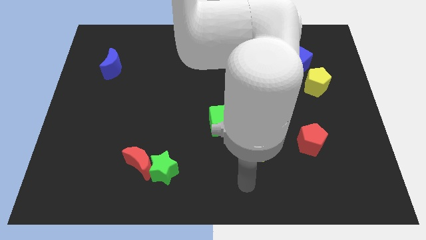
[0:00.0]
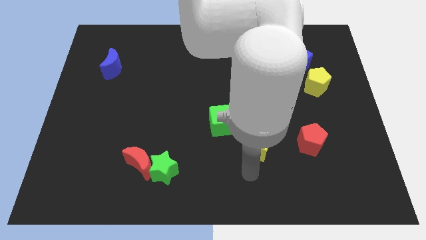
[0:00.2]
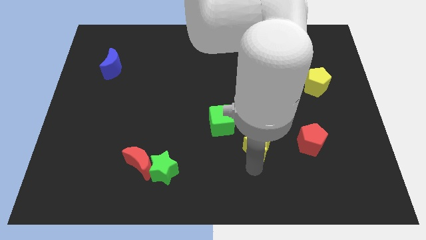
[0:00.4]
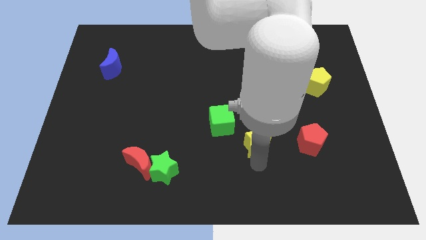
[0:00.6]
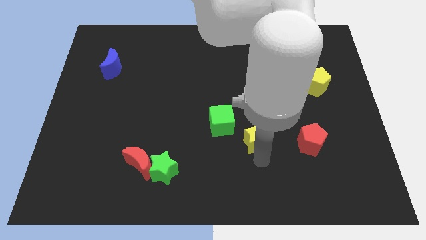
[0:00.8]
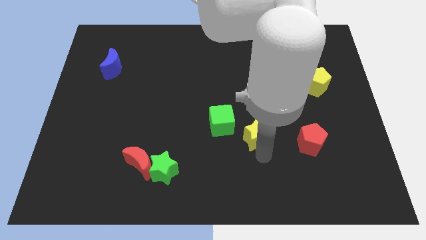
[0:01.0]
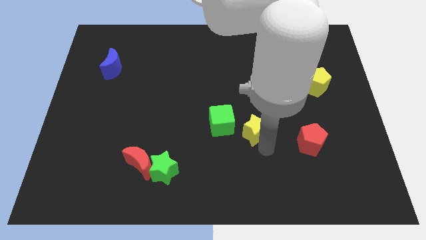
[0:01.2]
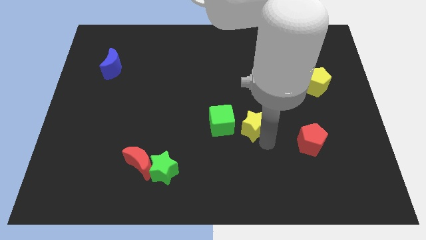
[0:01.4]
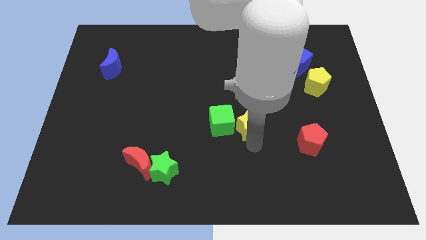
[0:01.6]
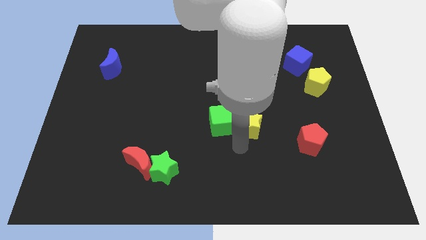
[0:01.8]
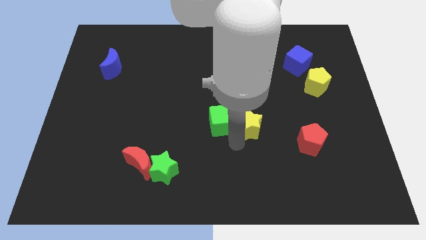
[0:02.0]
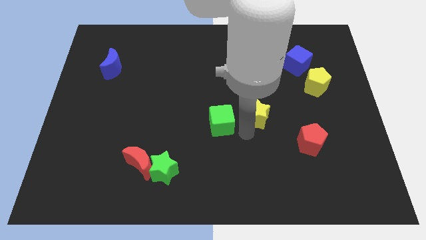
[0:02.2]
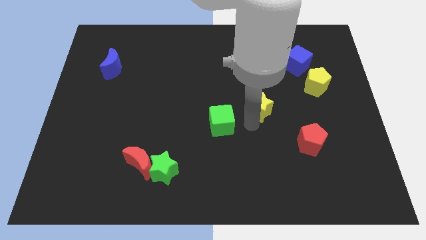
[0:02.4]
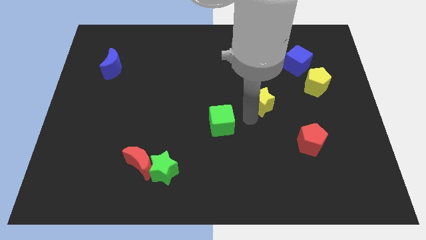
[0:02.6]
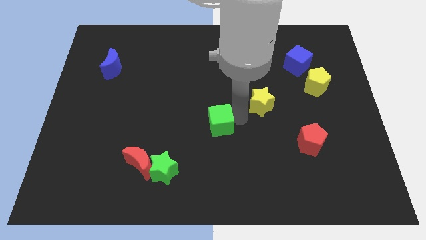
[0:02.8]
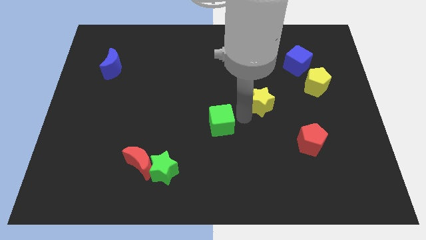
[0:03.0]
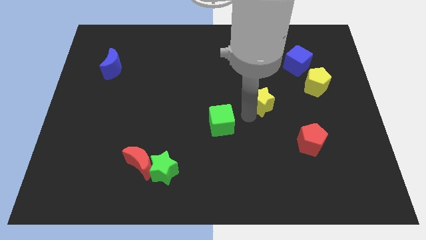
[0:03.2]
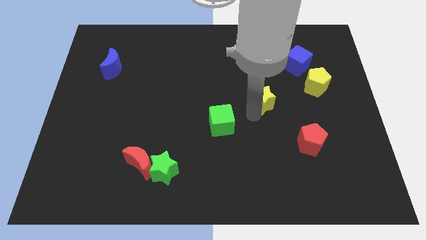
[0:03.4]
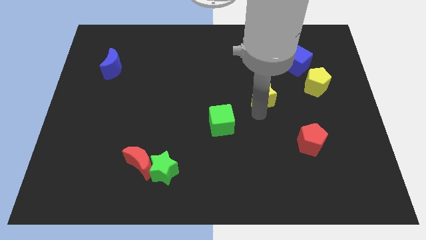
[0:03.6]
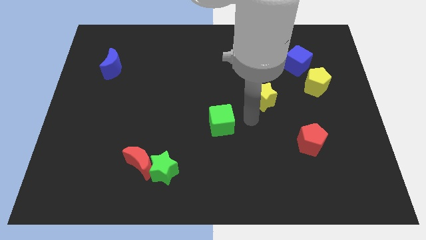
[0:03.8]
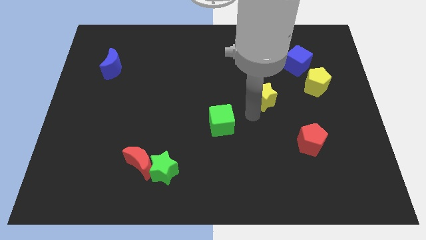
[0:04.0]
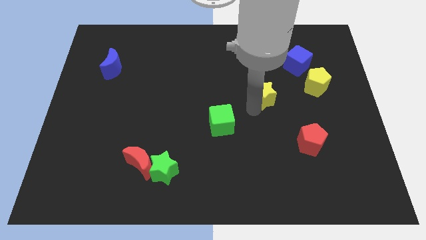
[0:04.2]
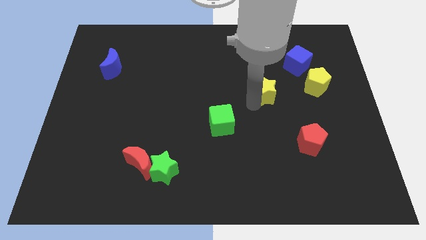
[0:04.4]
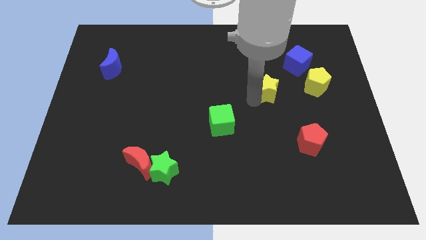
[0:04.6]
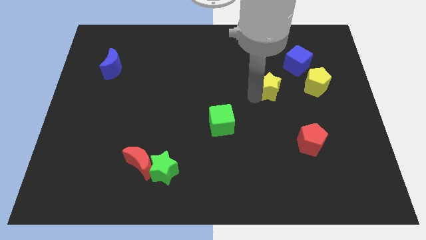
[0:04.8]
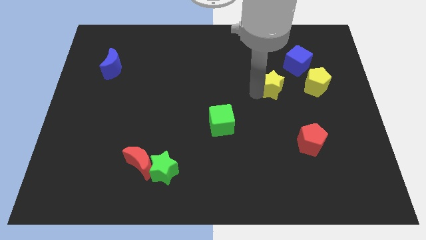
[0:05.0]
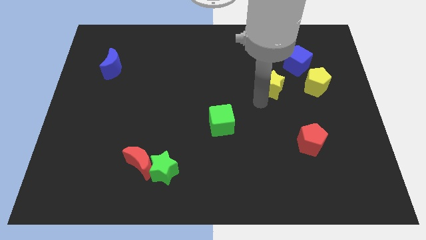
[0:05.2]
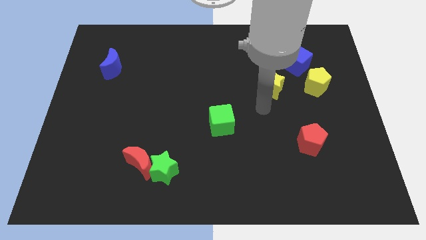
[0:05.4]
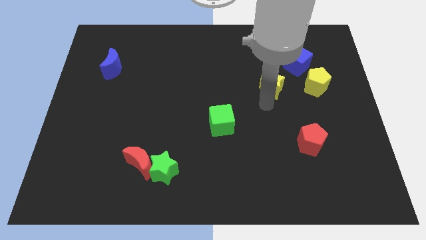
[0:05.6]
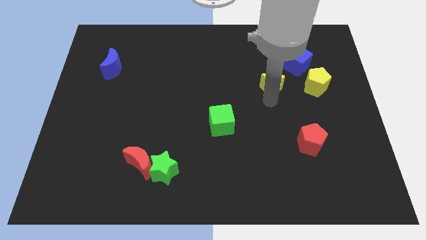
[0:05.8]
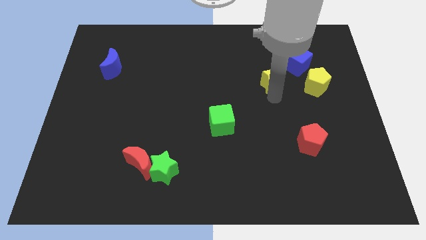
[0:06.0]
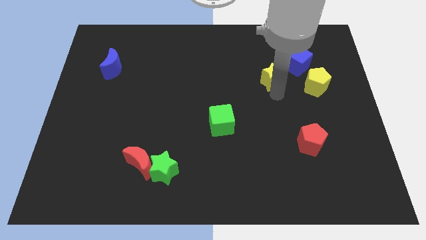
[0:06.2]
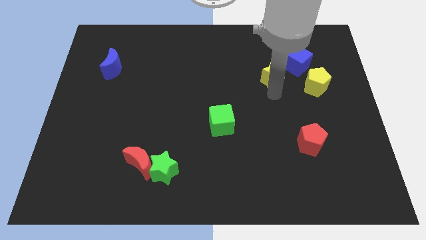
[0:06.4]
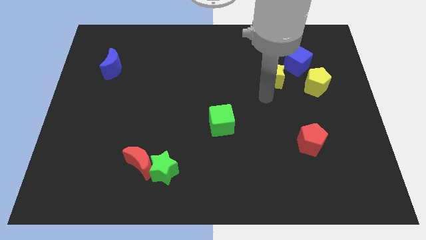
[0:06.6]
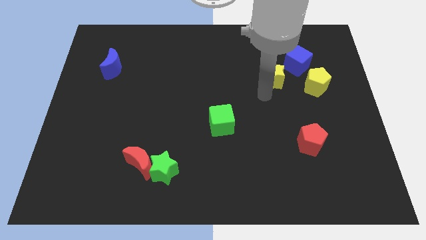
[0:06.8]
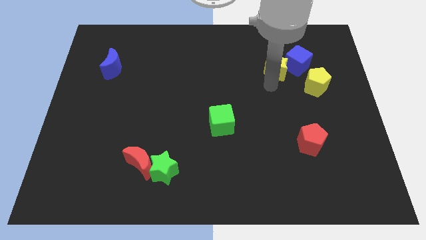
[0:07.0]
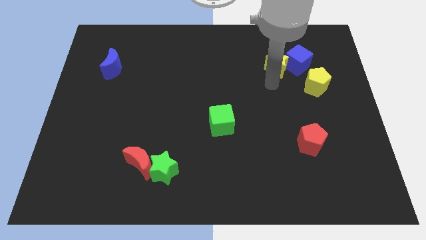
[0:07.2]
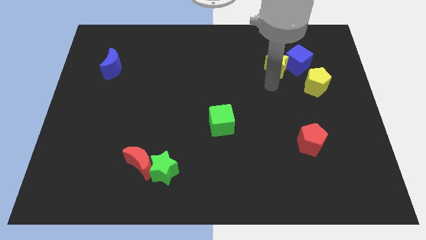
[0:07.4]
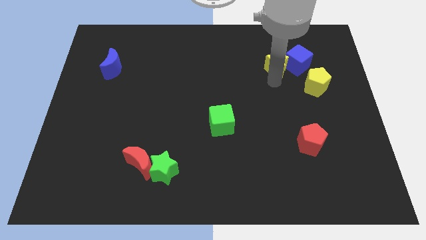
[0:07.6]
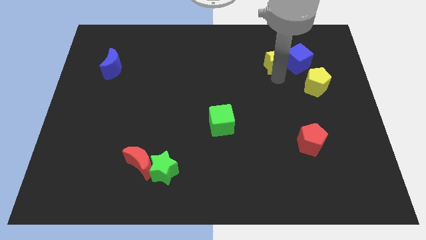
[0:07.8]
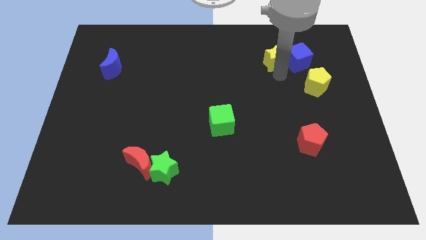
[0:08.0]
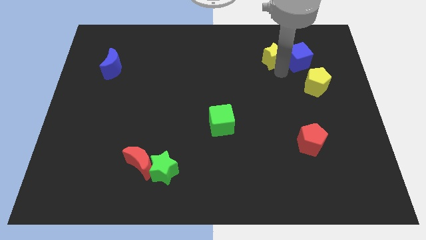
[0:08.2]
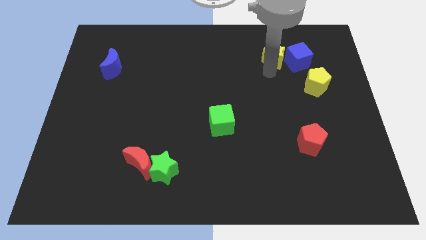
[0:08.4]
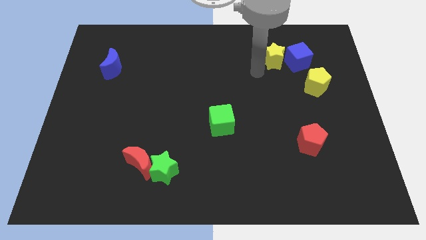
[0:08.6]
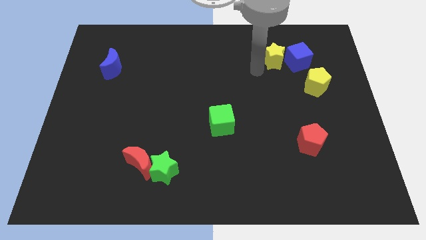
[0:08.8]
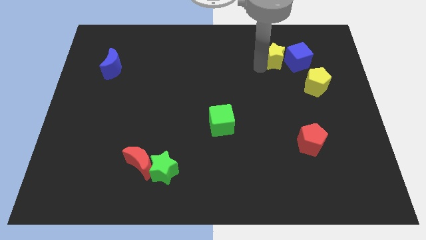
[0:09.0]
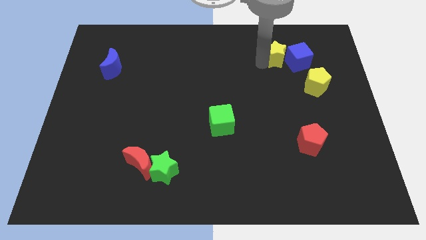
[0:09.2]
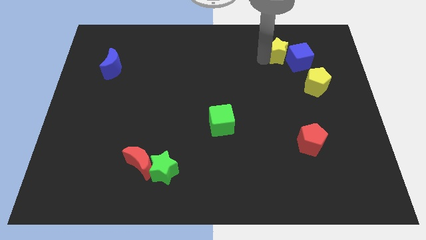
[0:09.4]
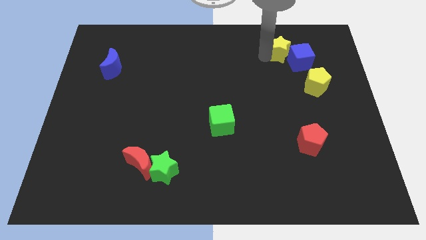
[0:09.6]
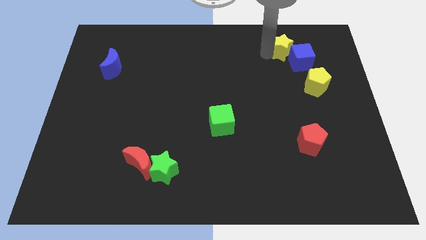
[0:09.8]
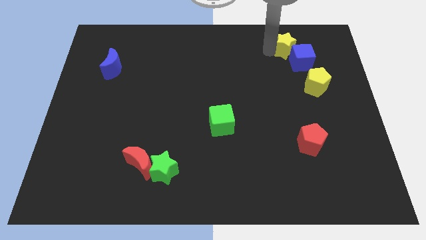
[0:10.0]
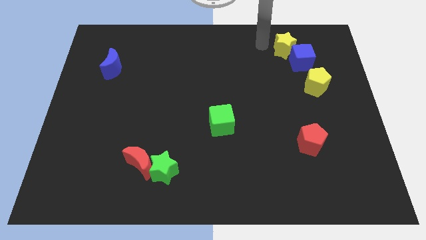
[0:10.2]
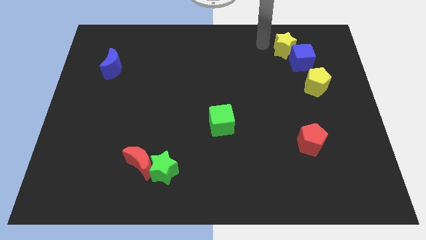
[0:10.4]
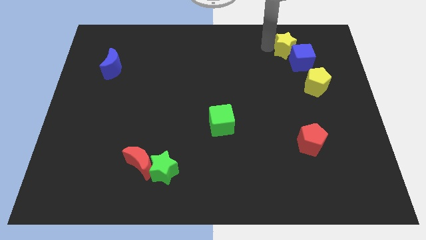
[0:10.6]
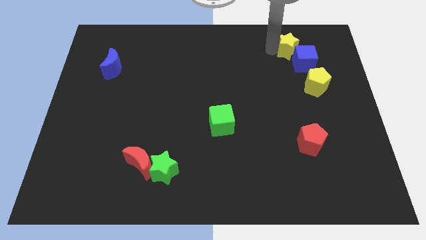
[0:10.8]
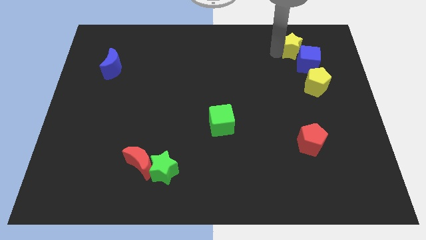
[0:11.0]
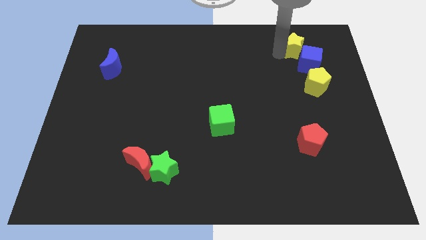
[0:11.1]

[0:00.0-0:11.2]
put the yellow star to the top of the yellow pentagon

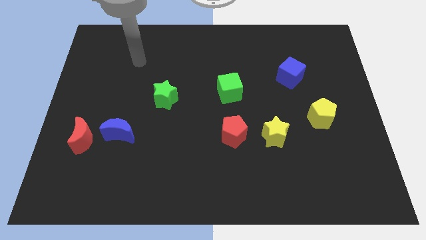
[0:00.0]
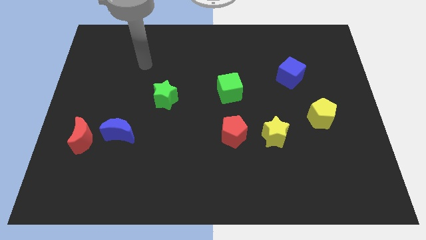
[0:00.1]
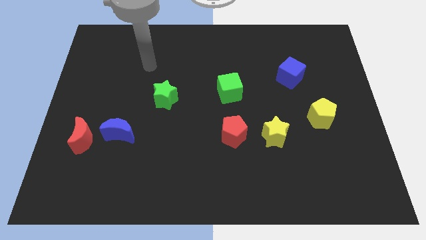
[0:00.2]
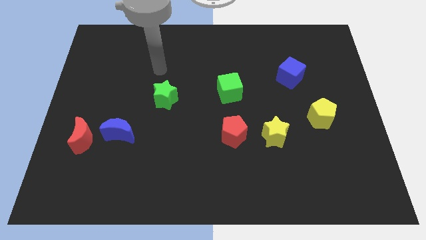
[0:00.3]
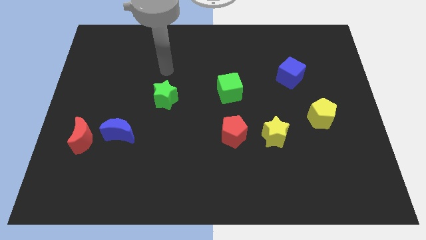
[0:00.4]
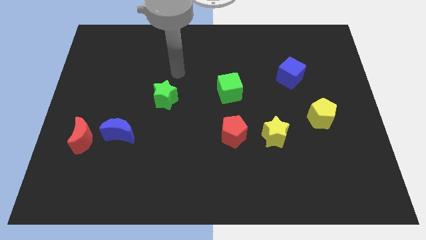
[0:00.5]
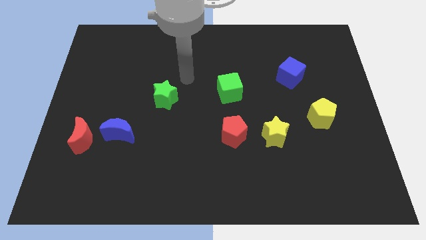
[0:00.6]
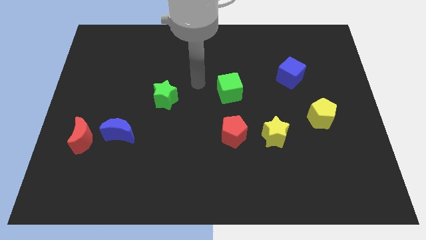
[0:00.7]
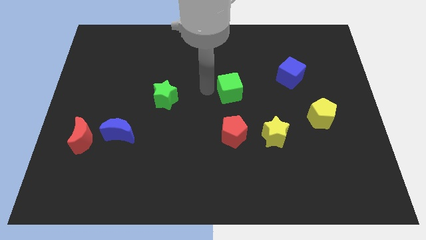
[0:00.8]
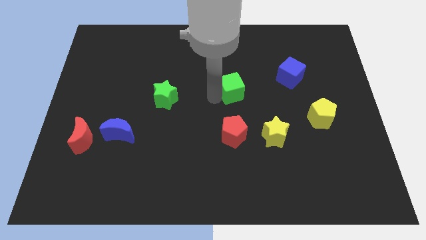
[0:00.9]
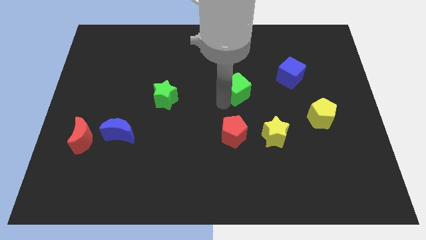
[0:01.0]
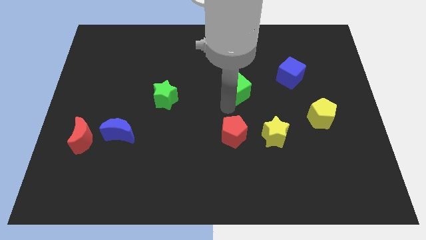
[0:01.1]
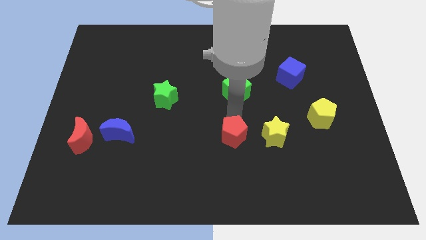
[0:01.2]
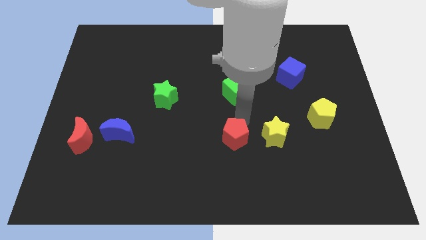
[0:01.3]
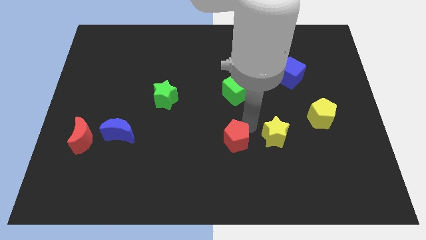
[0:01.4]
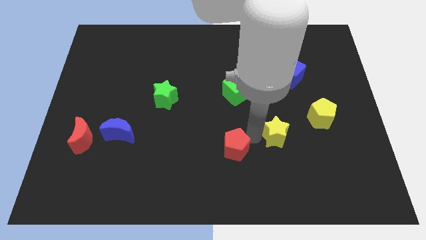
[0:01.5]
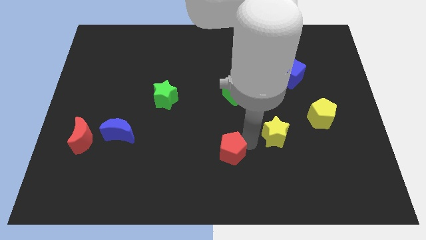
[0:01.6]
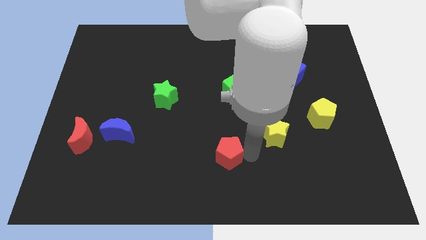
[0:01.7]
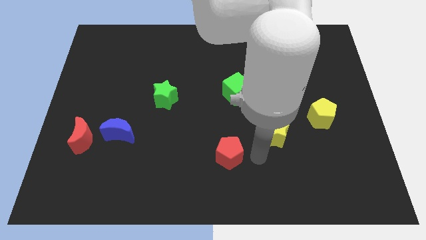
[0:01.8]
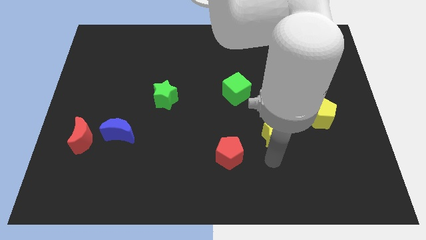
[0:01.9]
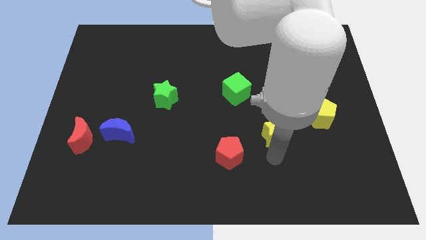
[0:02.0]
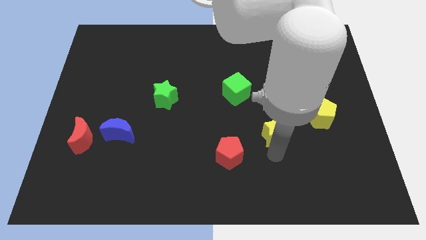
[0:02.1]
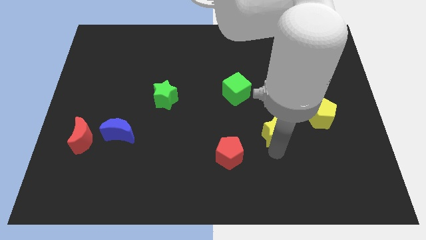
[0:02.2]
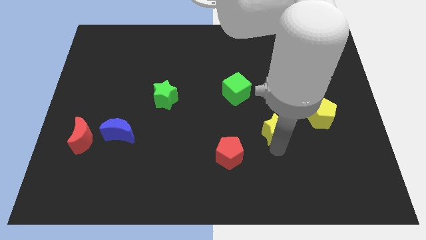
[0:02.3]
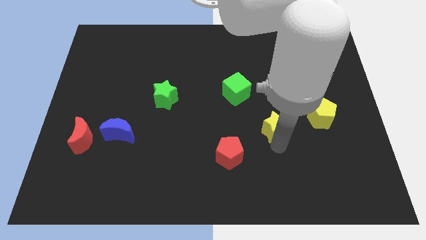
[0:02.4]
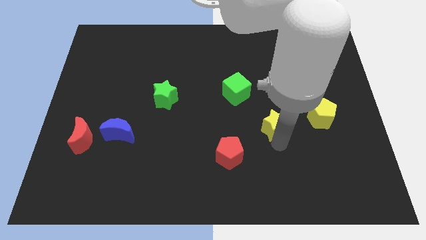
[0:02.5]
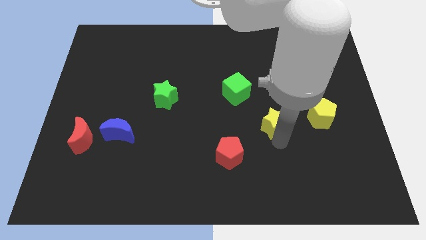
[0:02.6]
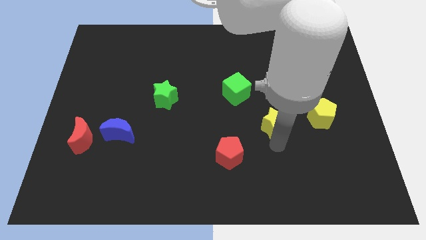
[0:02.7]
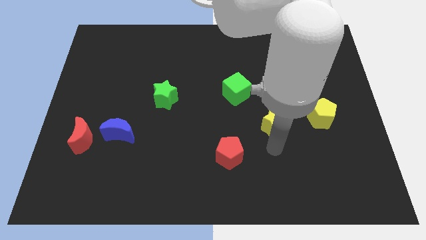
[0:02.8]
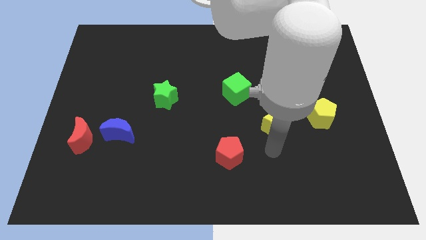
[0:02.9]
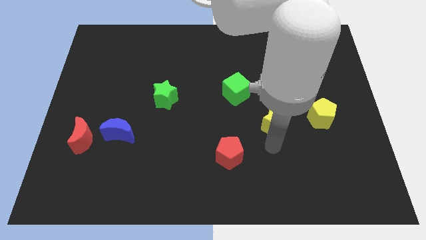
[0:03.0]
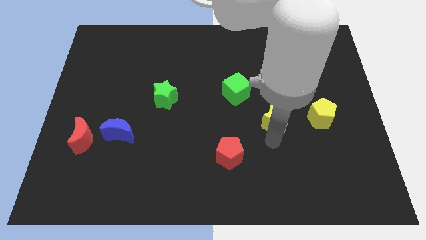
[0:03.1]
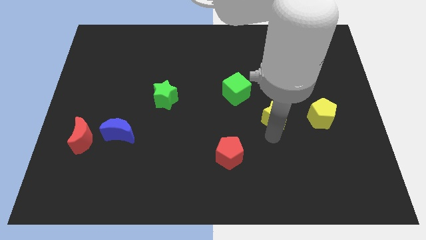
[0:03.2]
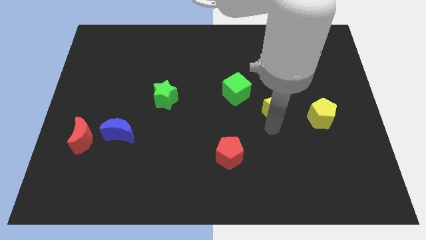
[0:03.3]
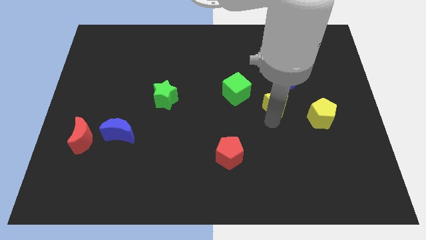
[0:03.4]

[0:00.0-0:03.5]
put the yellow star just right of the green cube
